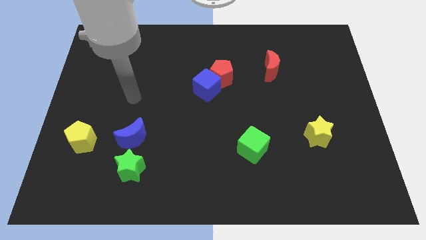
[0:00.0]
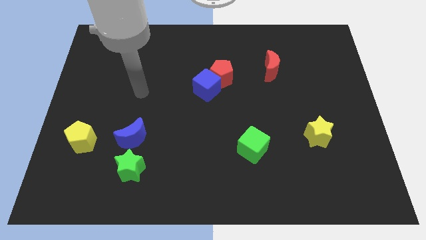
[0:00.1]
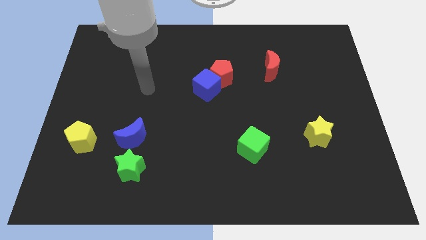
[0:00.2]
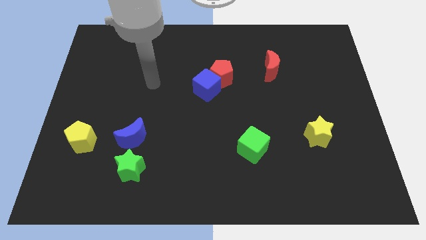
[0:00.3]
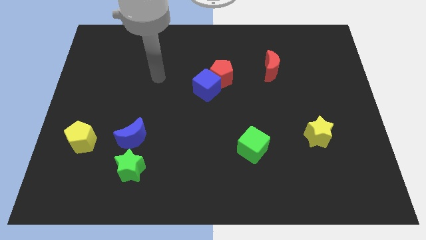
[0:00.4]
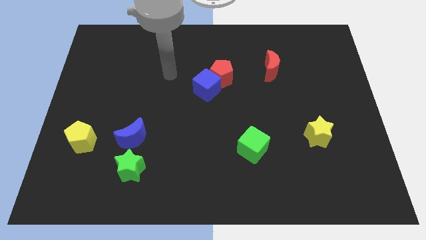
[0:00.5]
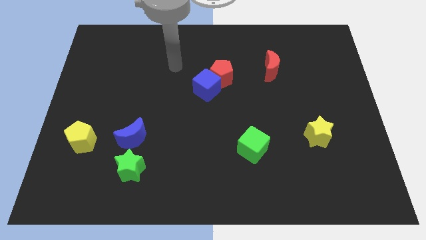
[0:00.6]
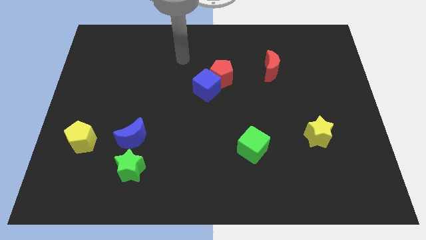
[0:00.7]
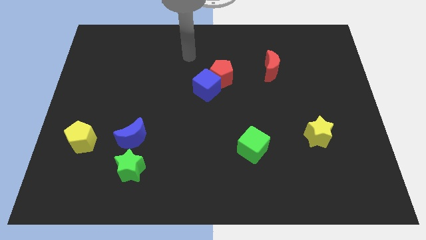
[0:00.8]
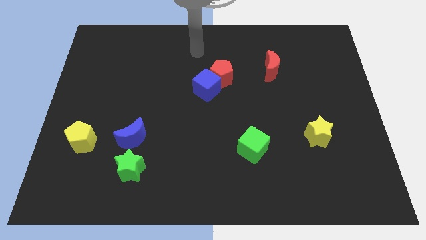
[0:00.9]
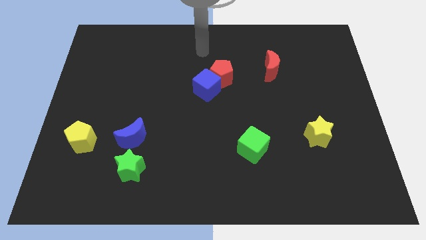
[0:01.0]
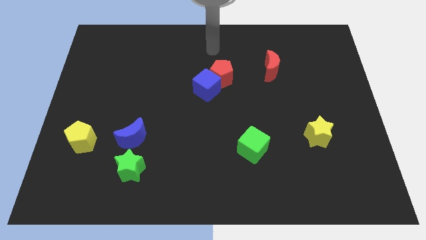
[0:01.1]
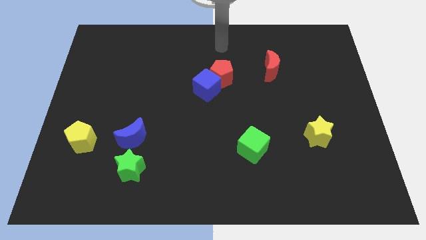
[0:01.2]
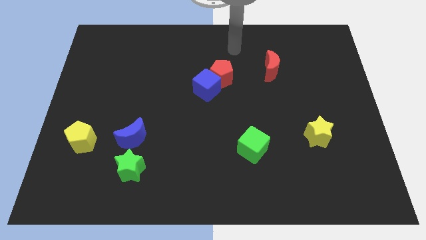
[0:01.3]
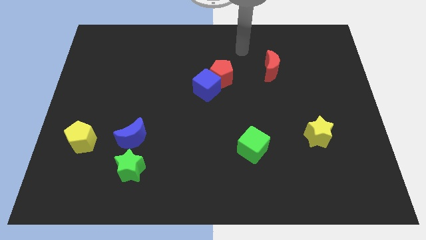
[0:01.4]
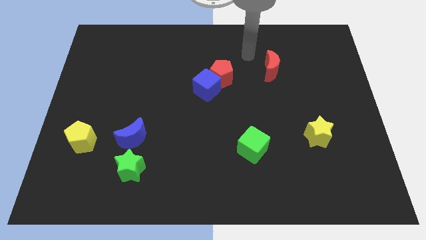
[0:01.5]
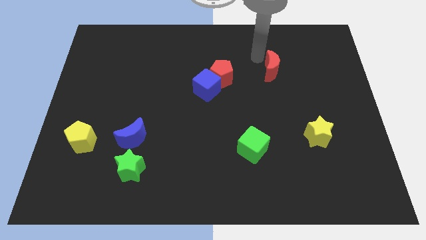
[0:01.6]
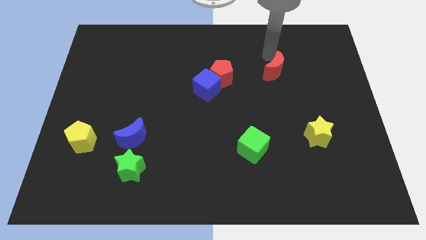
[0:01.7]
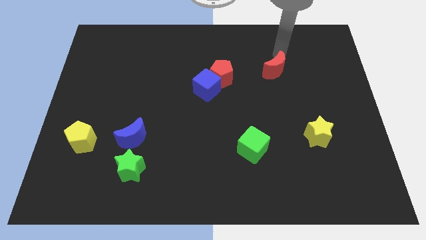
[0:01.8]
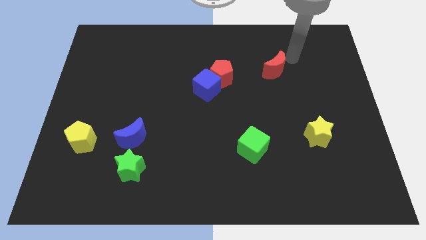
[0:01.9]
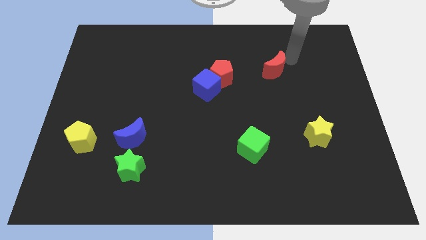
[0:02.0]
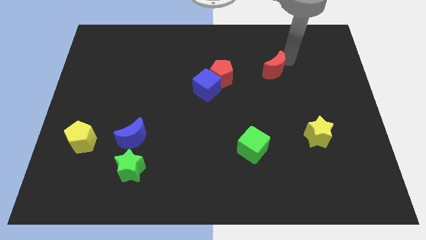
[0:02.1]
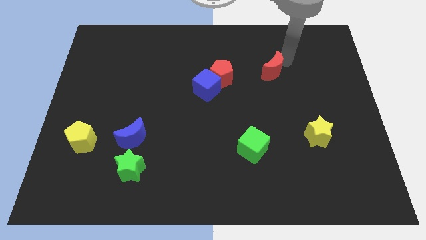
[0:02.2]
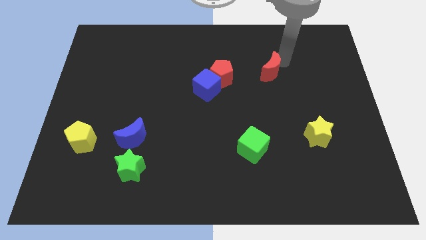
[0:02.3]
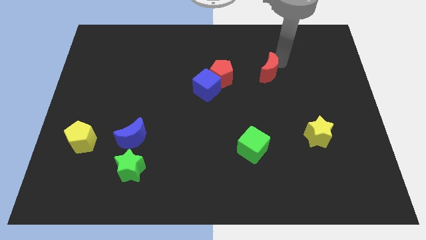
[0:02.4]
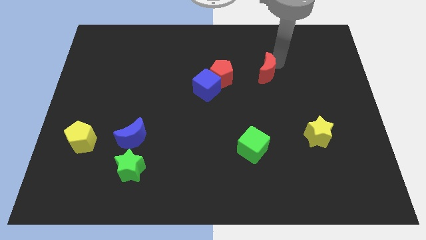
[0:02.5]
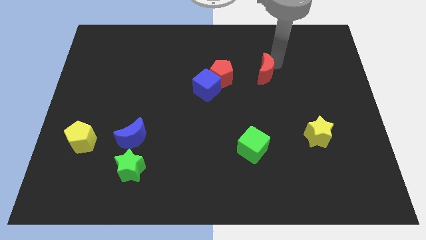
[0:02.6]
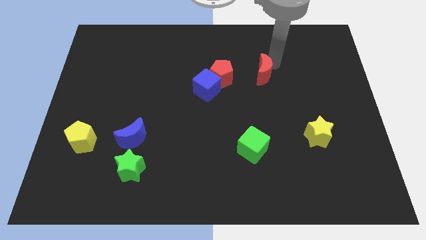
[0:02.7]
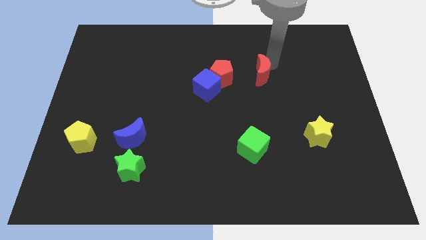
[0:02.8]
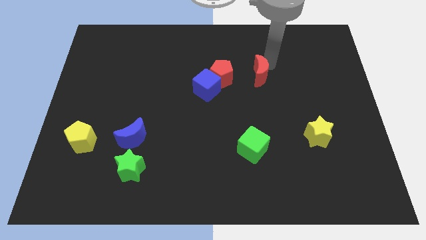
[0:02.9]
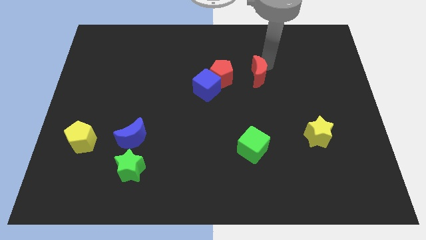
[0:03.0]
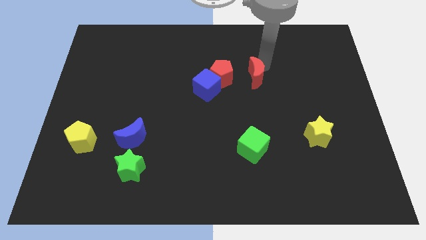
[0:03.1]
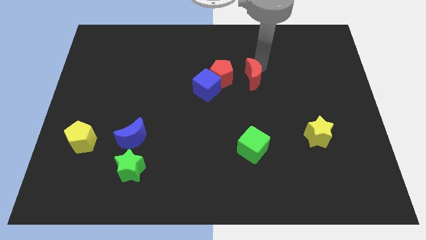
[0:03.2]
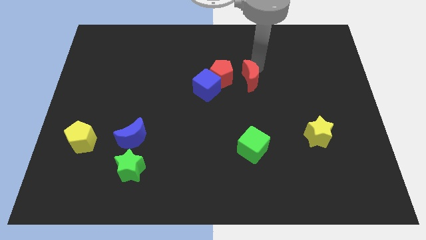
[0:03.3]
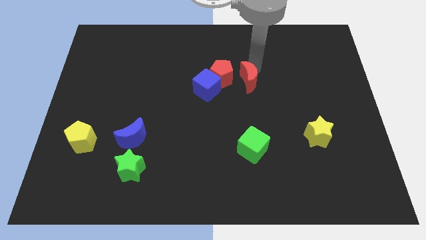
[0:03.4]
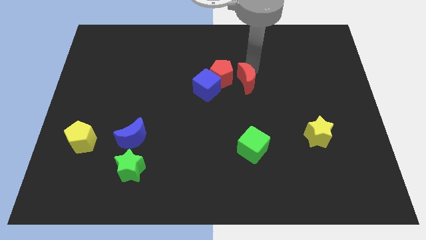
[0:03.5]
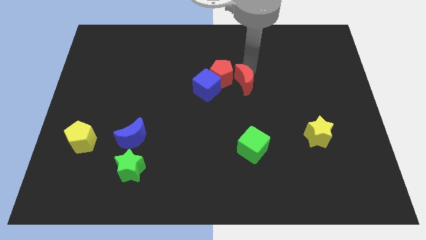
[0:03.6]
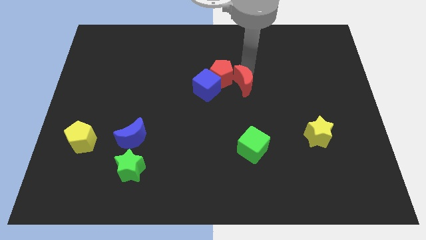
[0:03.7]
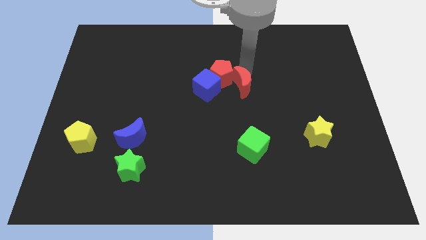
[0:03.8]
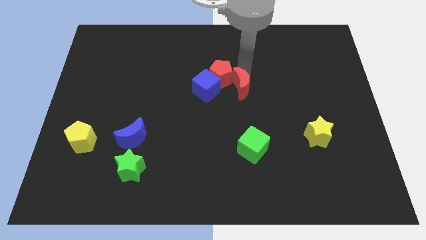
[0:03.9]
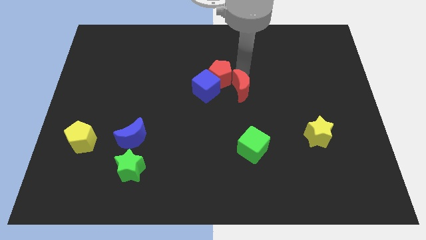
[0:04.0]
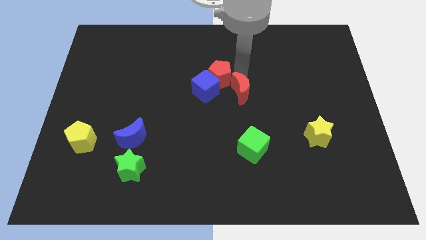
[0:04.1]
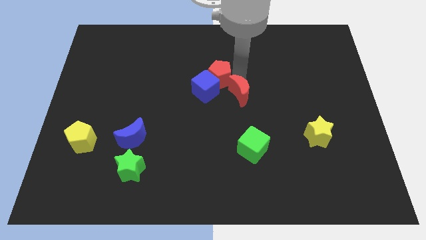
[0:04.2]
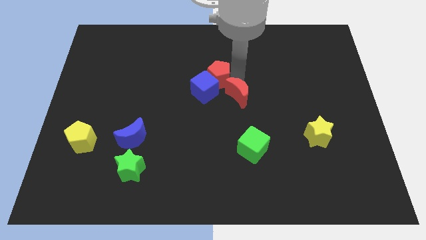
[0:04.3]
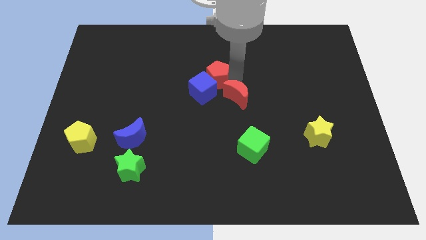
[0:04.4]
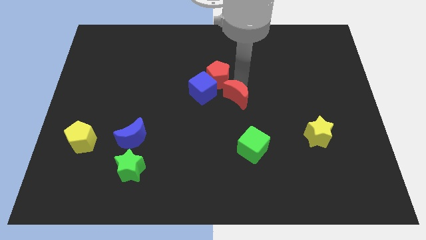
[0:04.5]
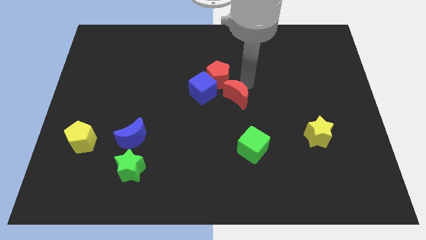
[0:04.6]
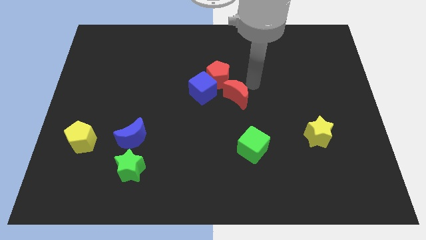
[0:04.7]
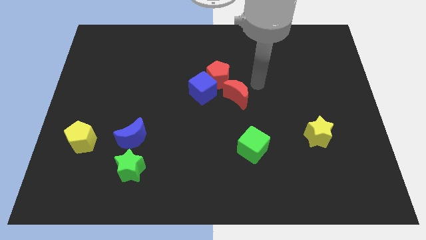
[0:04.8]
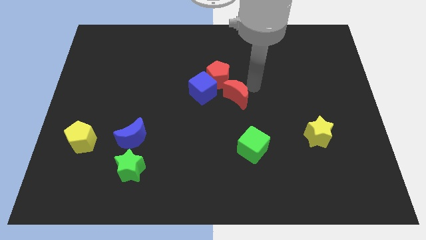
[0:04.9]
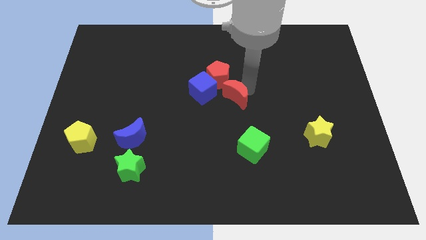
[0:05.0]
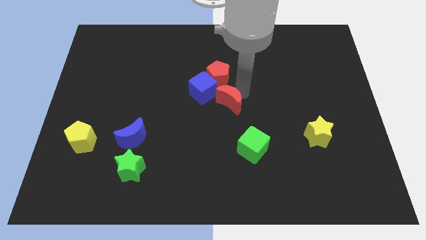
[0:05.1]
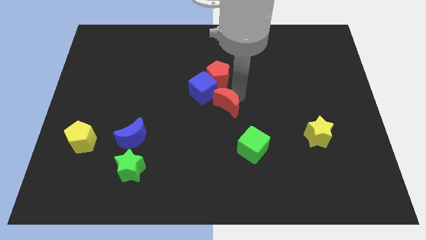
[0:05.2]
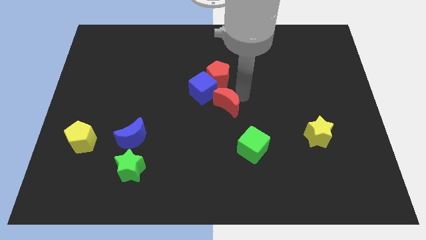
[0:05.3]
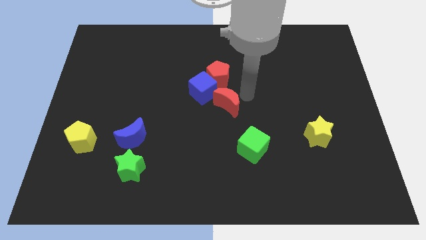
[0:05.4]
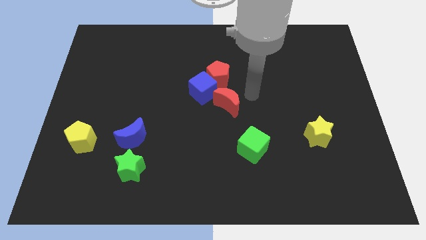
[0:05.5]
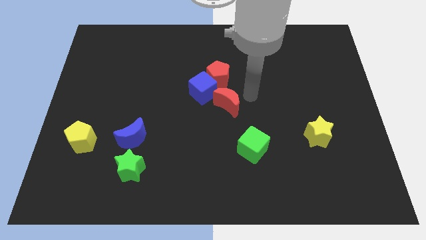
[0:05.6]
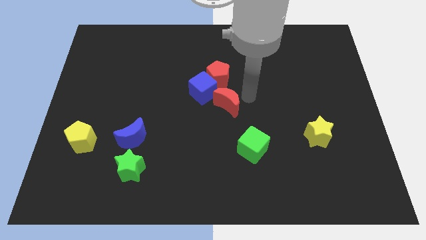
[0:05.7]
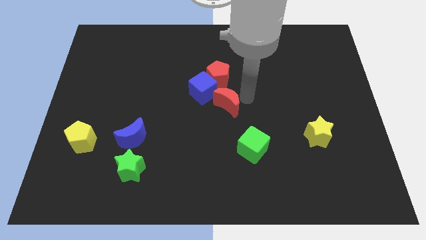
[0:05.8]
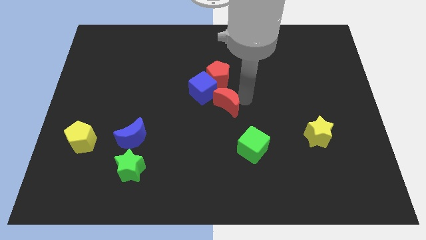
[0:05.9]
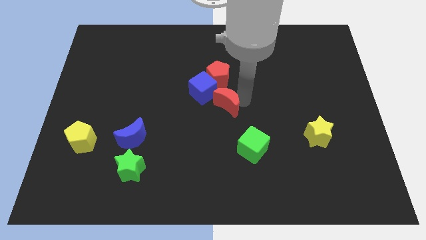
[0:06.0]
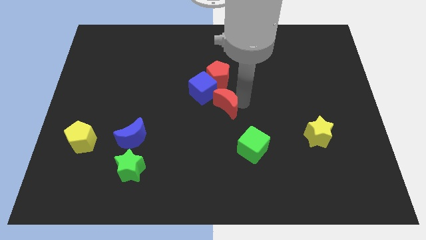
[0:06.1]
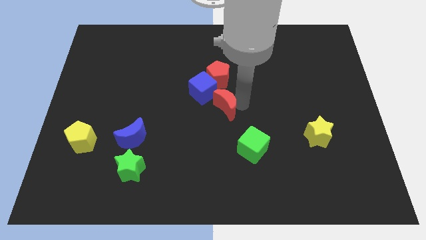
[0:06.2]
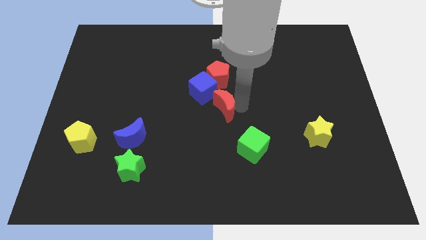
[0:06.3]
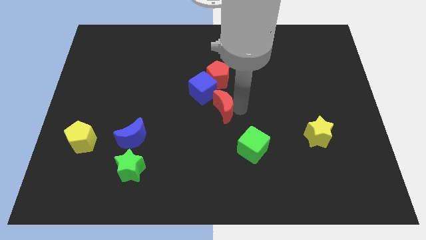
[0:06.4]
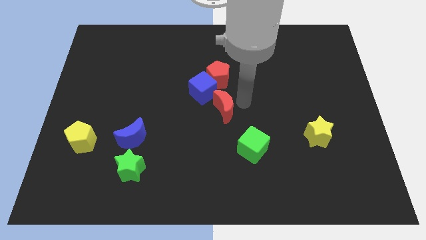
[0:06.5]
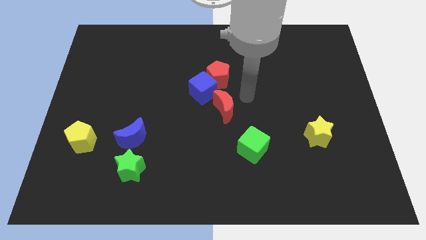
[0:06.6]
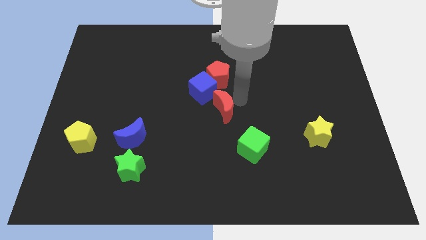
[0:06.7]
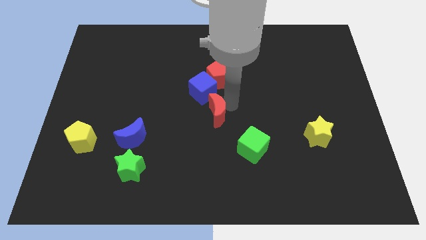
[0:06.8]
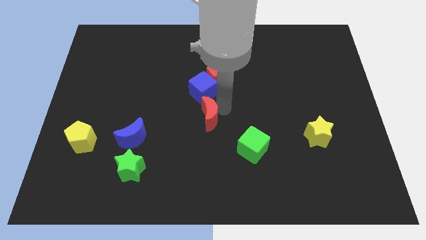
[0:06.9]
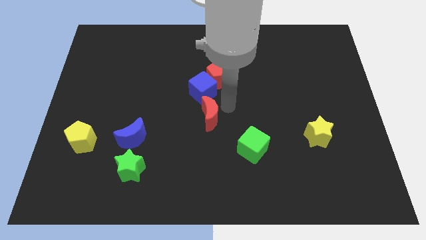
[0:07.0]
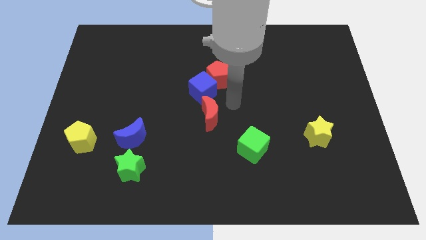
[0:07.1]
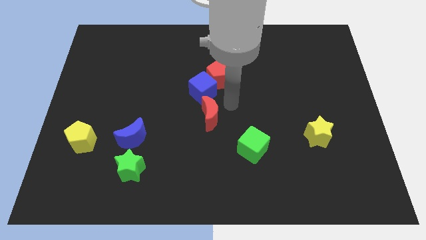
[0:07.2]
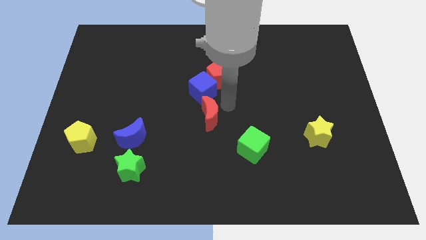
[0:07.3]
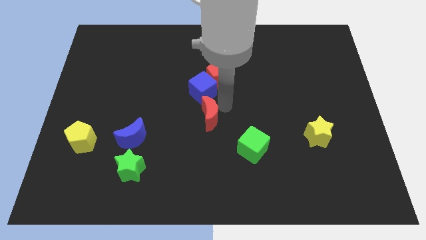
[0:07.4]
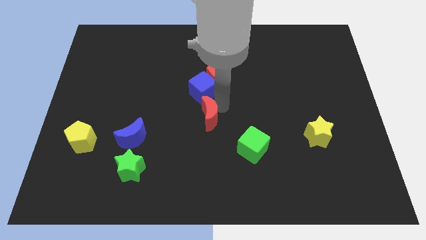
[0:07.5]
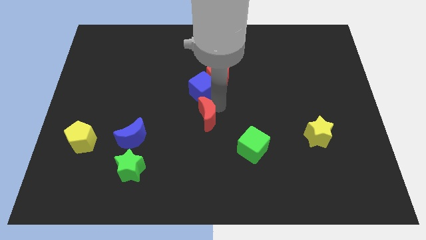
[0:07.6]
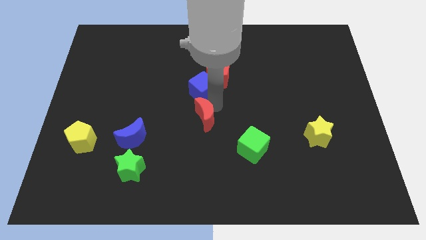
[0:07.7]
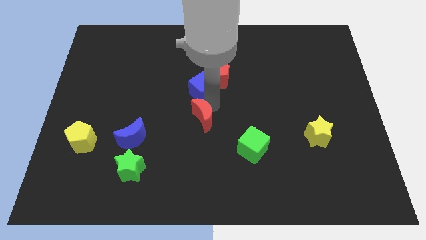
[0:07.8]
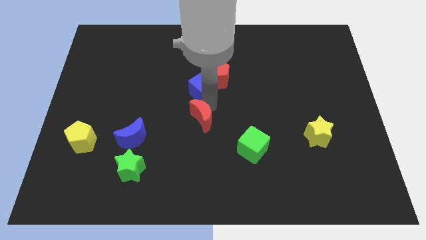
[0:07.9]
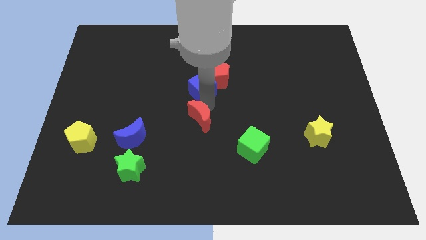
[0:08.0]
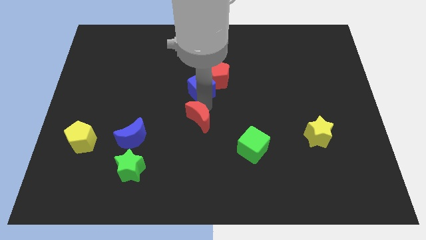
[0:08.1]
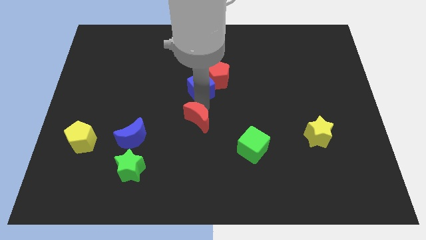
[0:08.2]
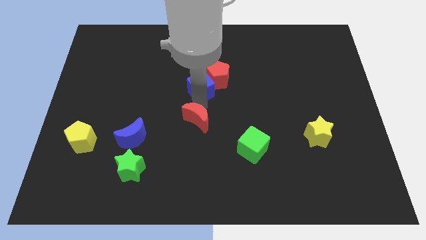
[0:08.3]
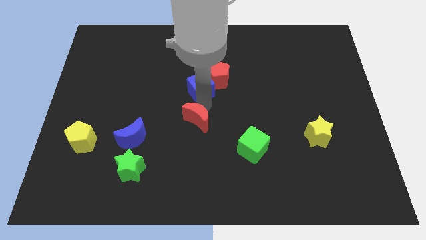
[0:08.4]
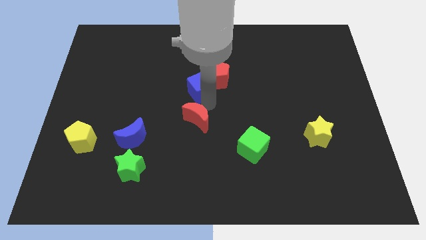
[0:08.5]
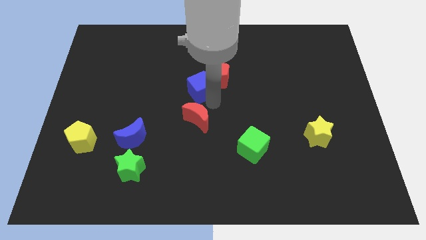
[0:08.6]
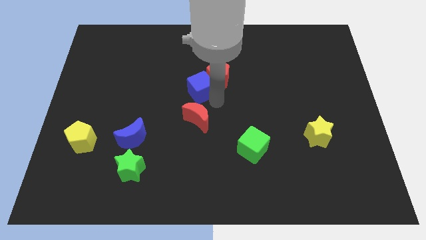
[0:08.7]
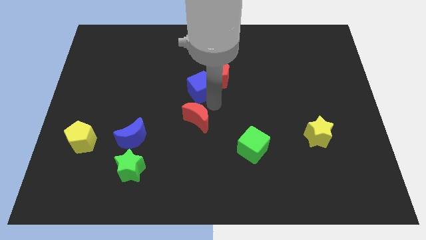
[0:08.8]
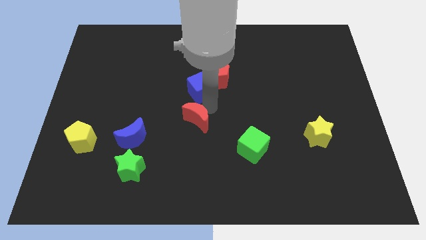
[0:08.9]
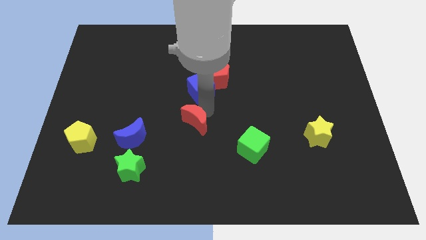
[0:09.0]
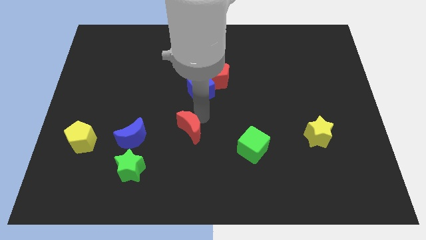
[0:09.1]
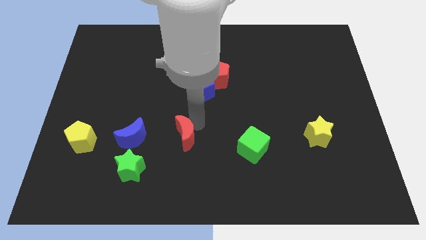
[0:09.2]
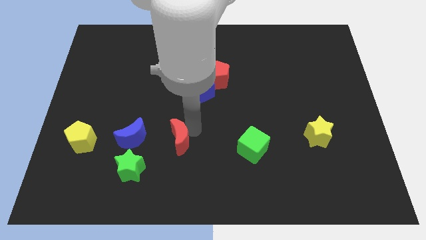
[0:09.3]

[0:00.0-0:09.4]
slide the red moon to the top right side of the green star
